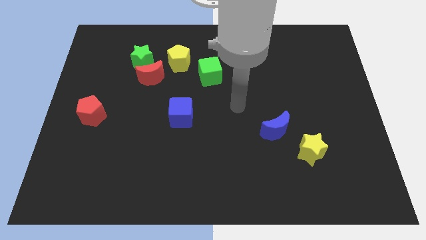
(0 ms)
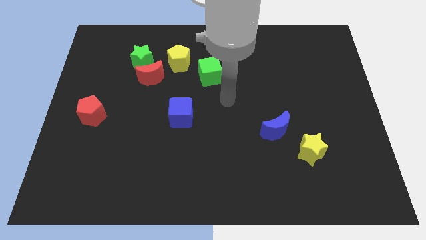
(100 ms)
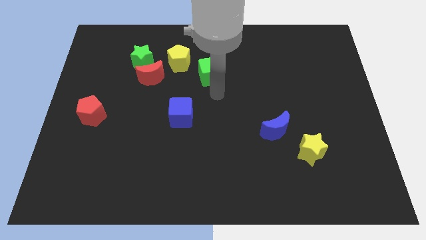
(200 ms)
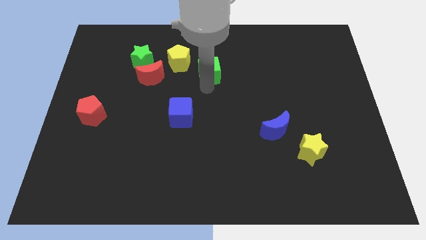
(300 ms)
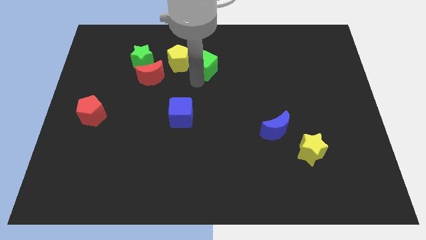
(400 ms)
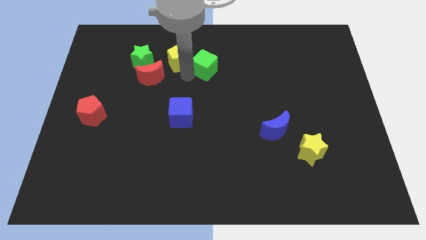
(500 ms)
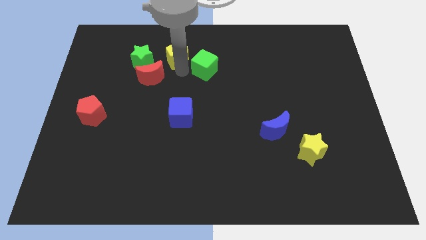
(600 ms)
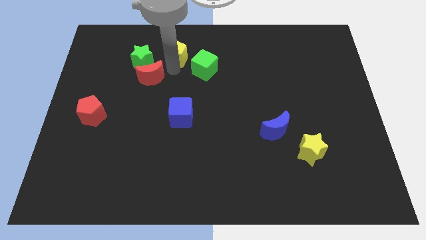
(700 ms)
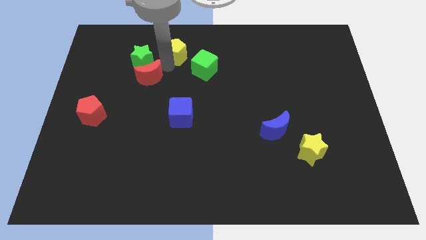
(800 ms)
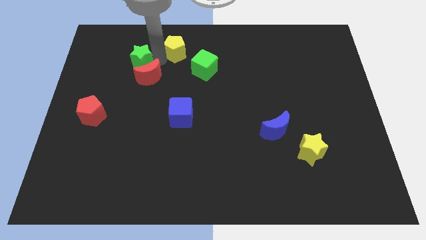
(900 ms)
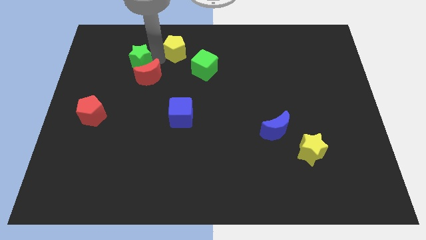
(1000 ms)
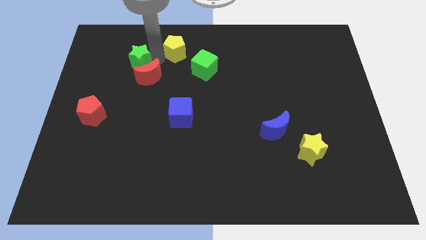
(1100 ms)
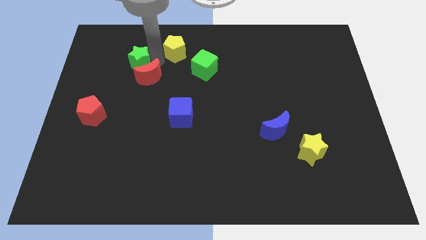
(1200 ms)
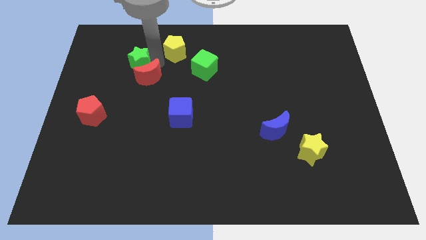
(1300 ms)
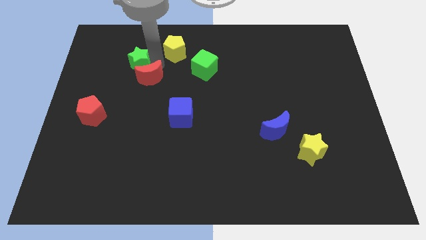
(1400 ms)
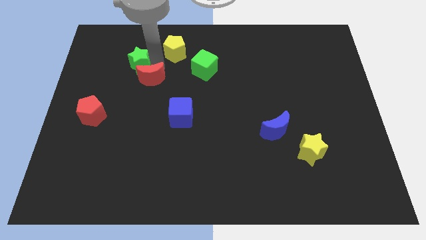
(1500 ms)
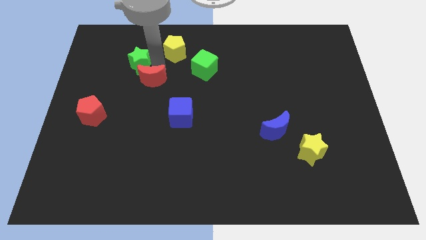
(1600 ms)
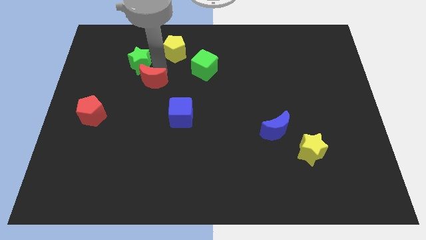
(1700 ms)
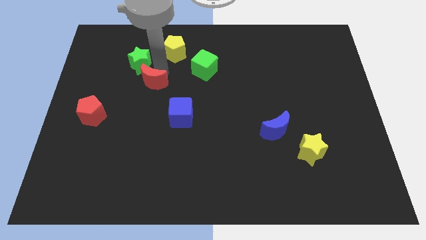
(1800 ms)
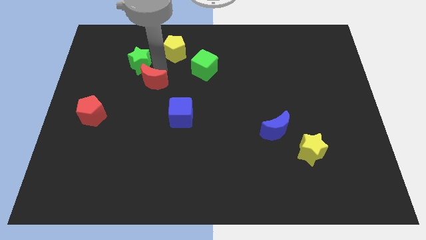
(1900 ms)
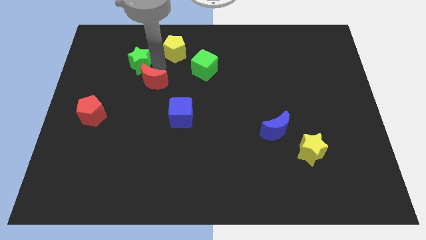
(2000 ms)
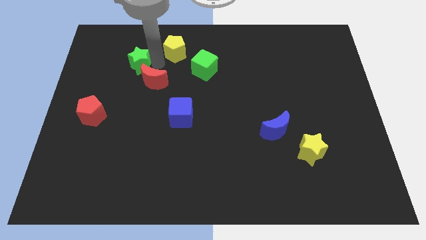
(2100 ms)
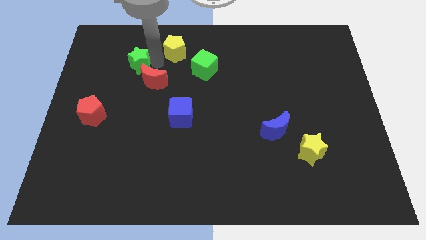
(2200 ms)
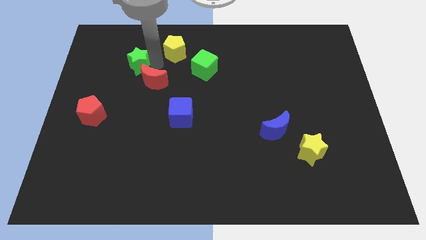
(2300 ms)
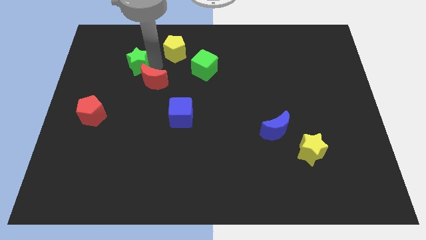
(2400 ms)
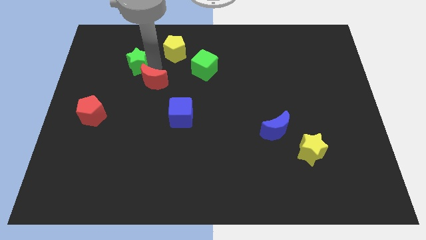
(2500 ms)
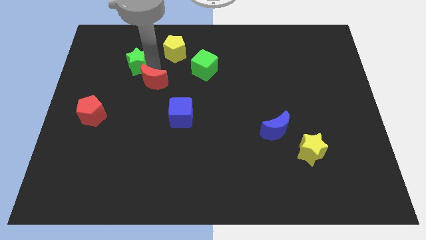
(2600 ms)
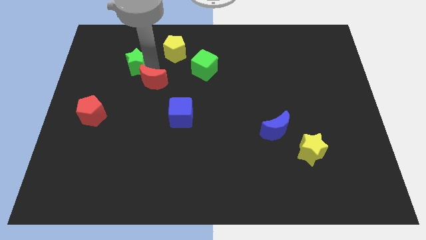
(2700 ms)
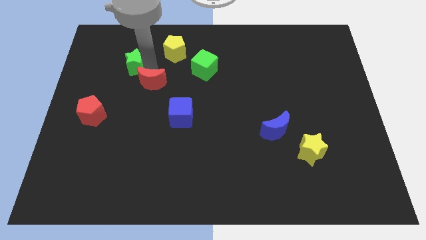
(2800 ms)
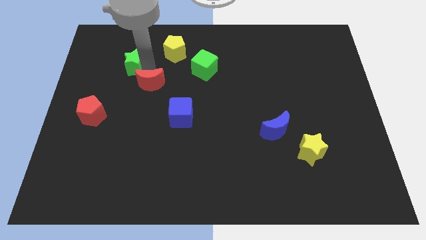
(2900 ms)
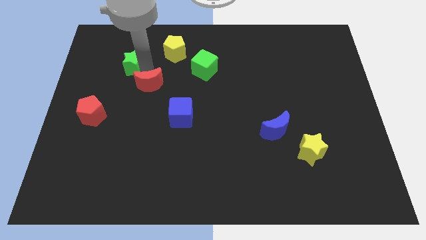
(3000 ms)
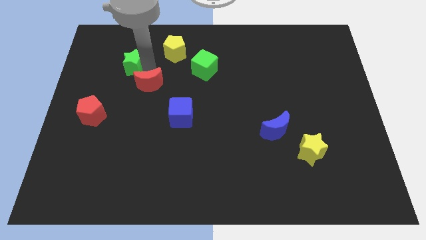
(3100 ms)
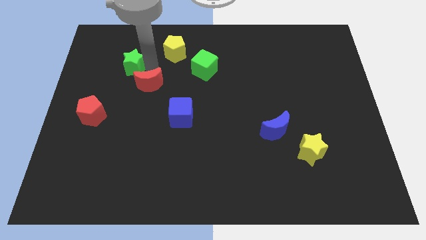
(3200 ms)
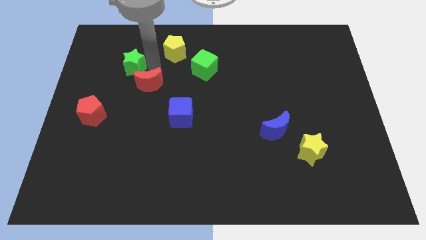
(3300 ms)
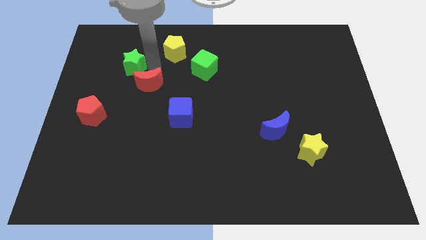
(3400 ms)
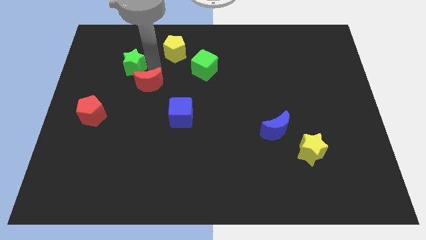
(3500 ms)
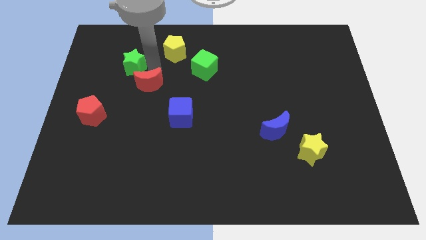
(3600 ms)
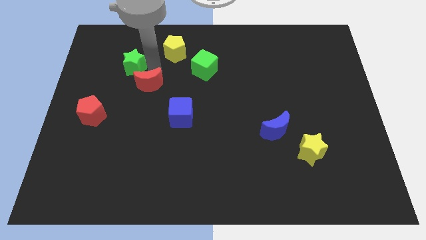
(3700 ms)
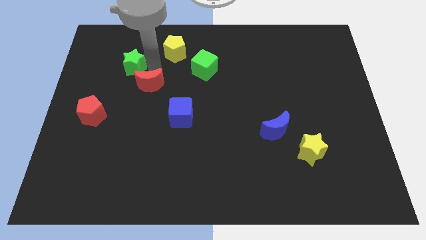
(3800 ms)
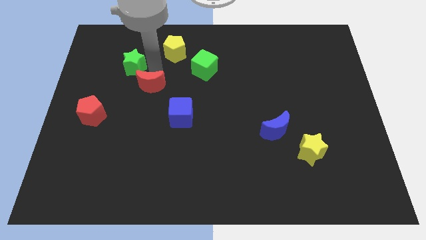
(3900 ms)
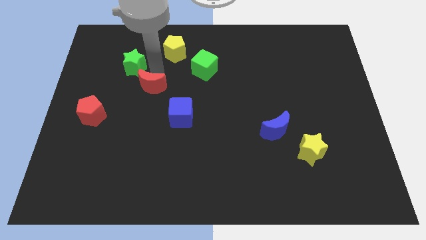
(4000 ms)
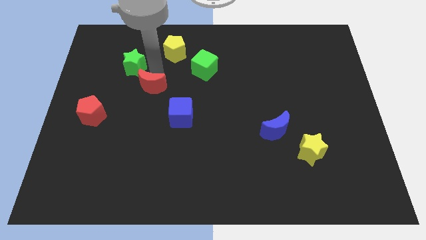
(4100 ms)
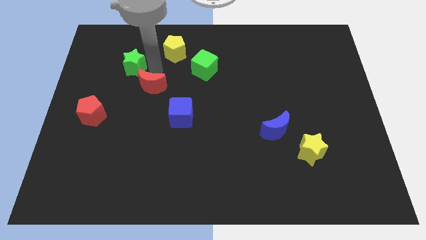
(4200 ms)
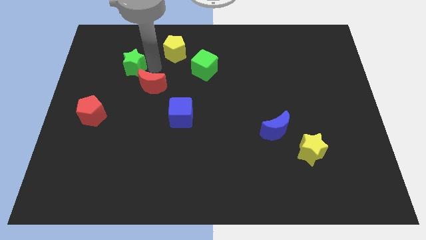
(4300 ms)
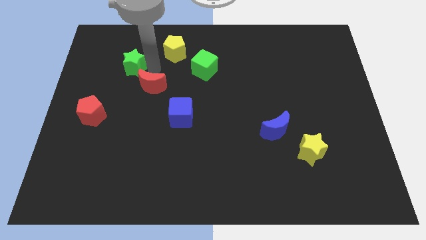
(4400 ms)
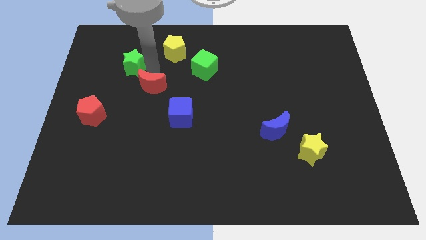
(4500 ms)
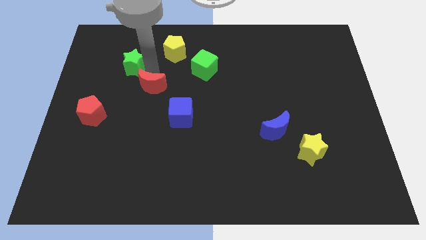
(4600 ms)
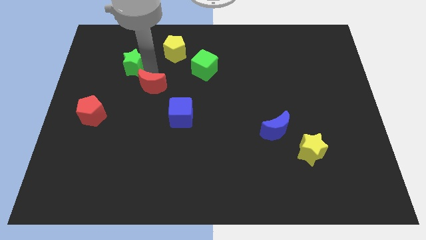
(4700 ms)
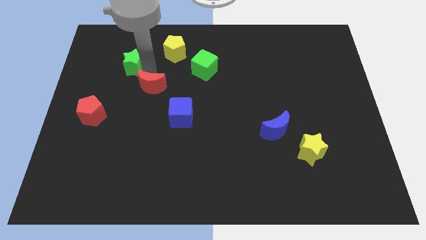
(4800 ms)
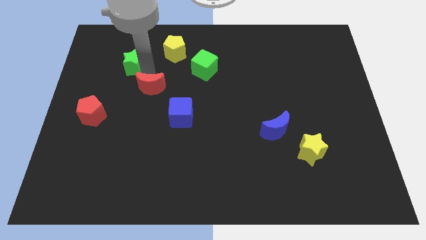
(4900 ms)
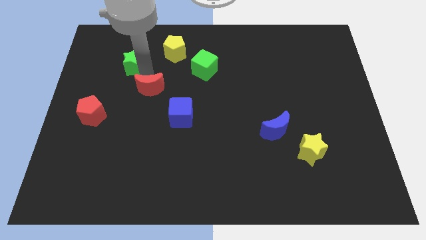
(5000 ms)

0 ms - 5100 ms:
pull the red moon apart from the green star and yellow pentagon

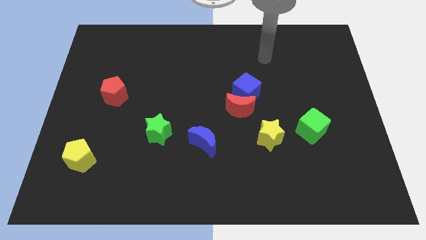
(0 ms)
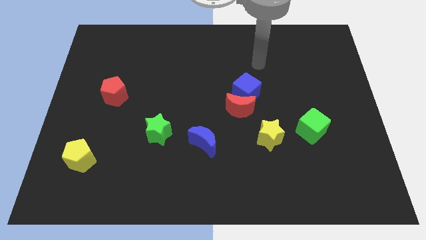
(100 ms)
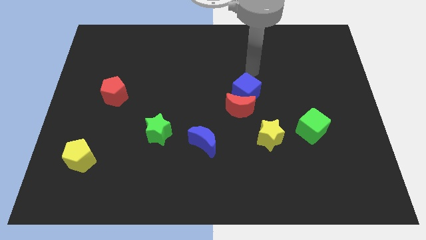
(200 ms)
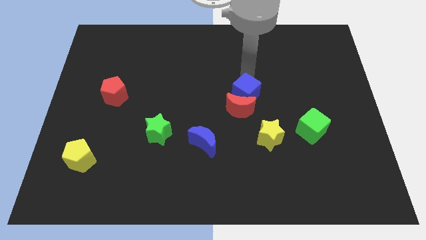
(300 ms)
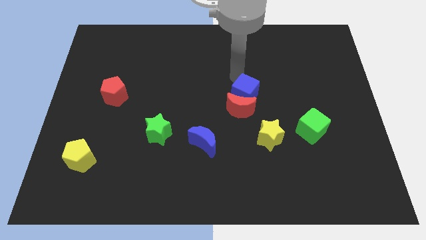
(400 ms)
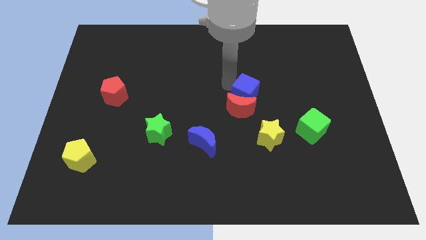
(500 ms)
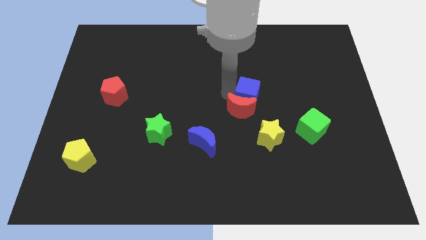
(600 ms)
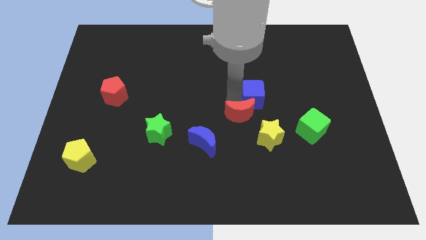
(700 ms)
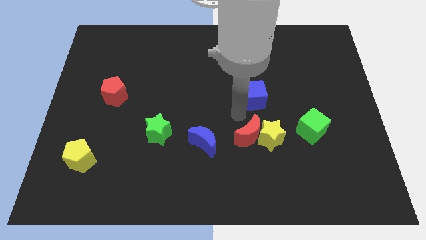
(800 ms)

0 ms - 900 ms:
pull the blue cube apart from the red moon

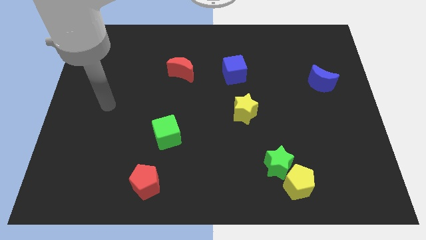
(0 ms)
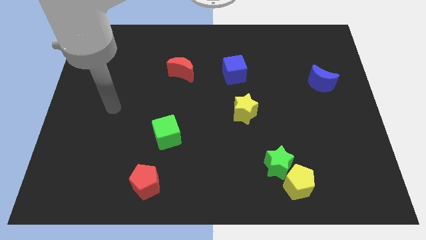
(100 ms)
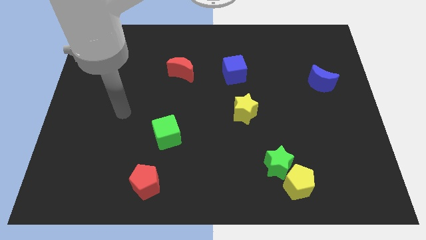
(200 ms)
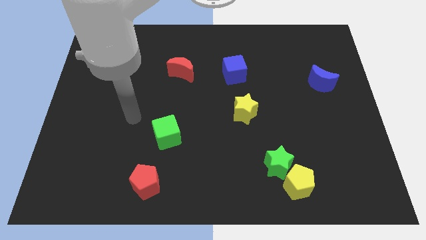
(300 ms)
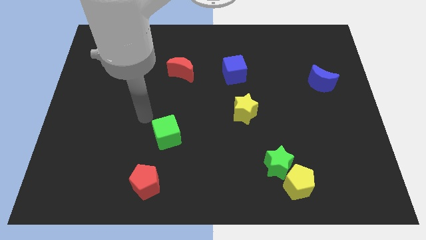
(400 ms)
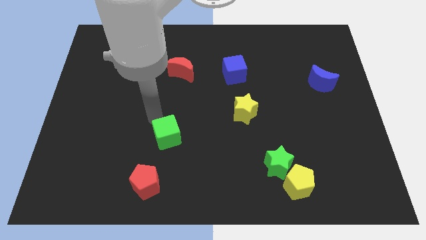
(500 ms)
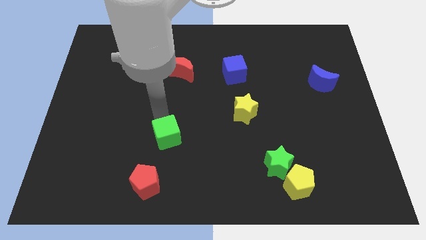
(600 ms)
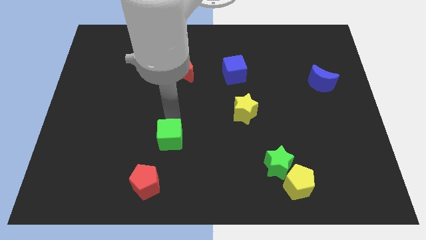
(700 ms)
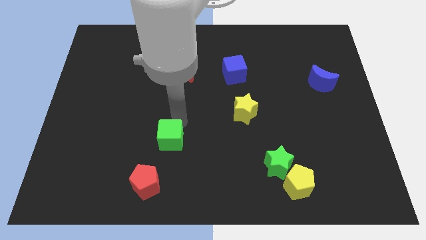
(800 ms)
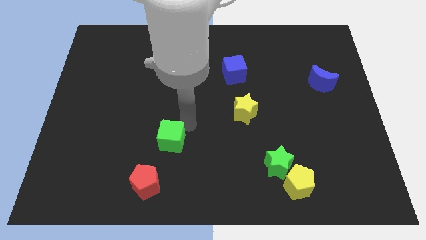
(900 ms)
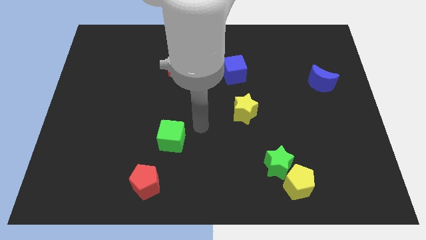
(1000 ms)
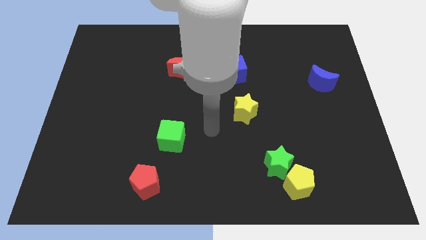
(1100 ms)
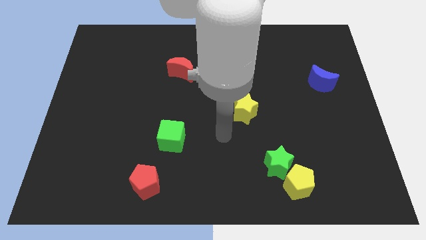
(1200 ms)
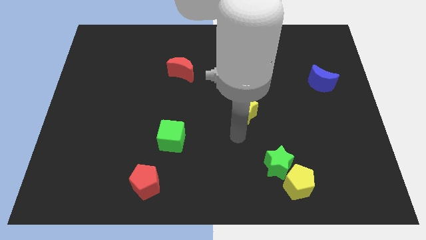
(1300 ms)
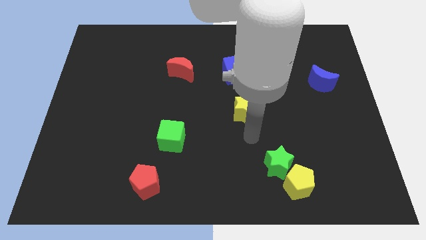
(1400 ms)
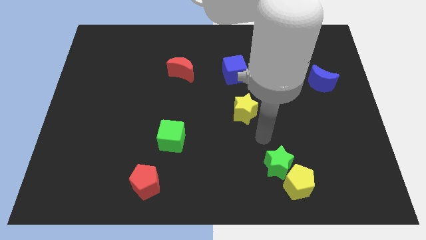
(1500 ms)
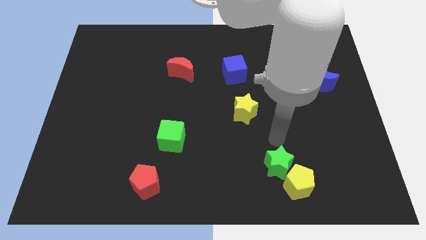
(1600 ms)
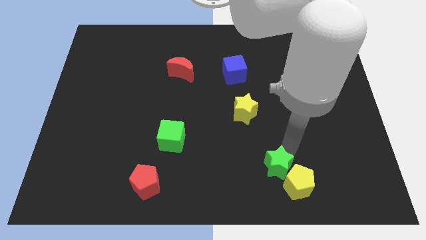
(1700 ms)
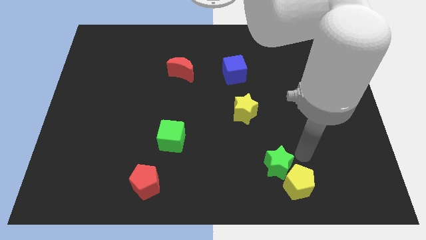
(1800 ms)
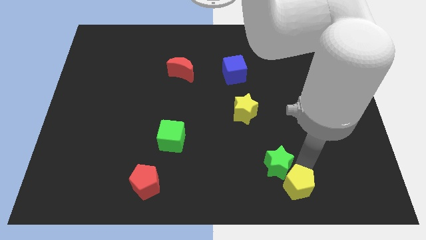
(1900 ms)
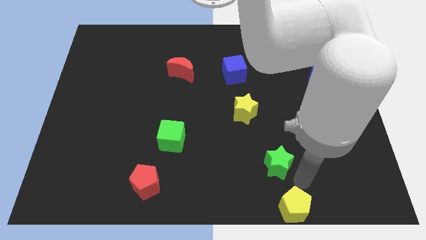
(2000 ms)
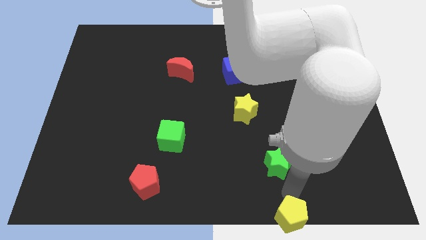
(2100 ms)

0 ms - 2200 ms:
move the green star away from the yellow pentagon

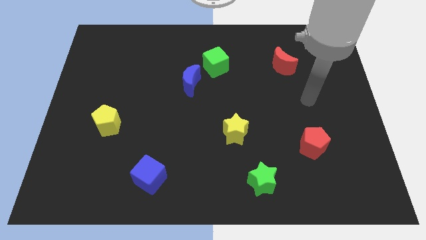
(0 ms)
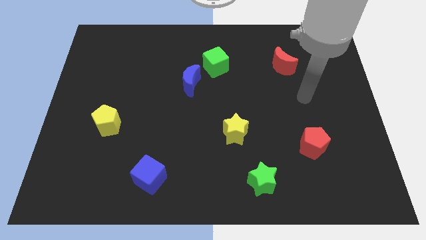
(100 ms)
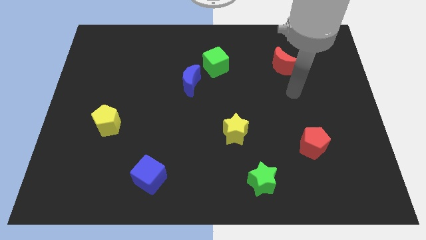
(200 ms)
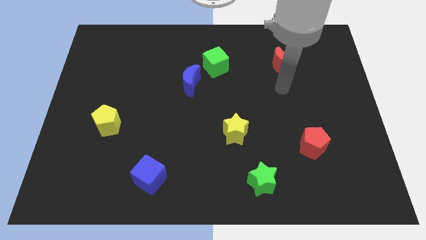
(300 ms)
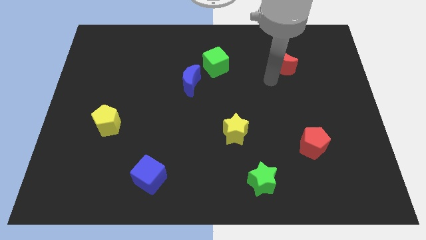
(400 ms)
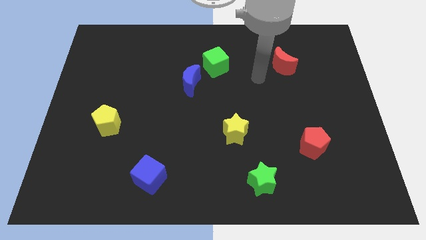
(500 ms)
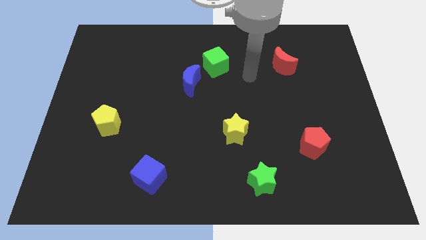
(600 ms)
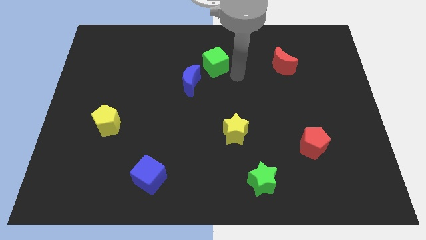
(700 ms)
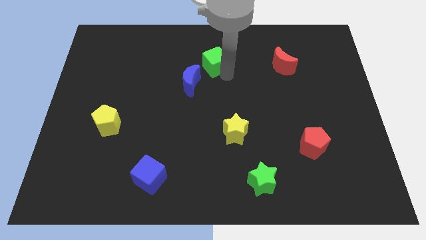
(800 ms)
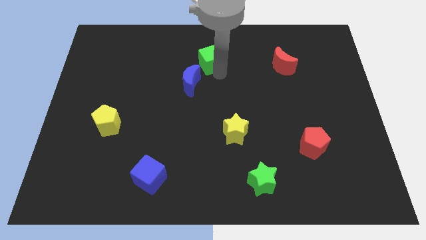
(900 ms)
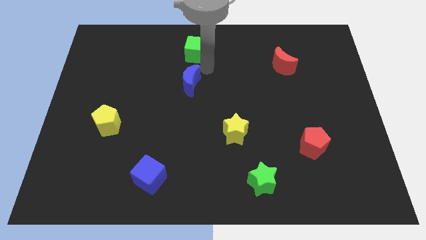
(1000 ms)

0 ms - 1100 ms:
separate the blue moon from the green cube

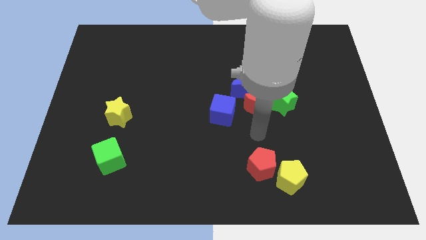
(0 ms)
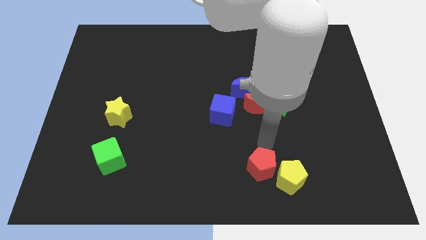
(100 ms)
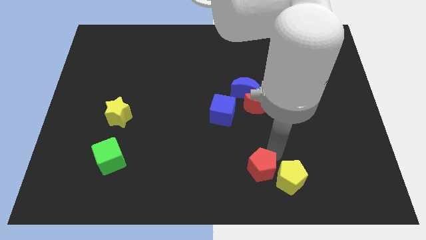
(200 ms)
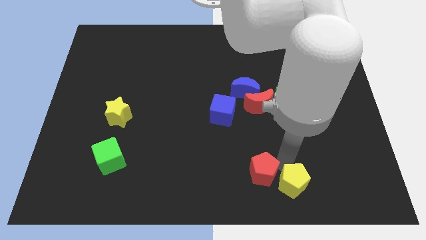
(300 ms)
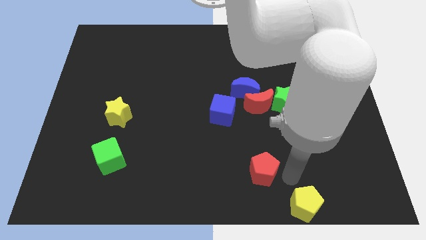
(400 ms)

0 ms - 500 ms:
move the red pentagon away from the yellow pentagon
